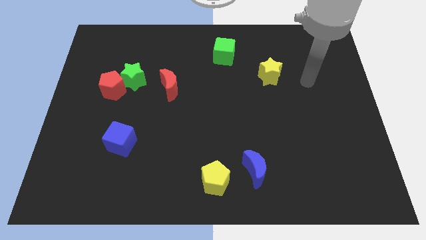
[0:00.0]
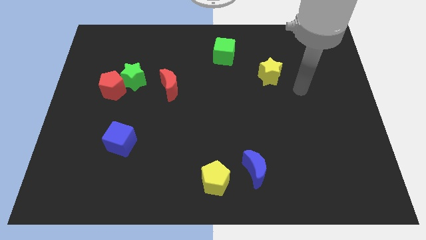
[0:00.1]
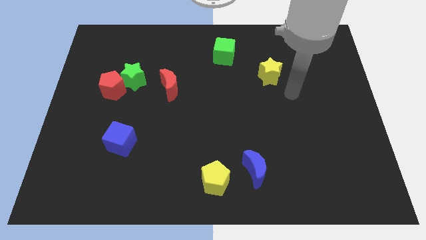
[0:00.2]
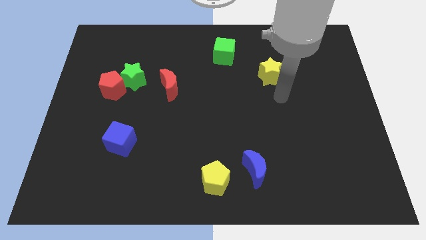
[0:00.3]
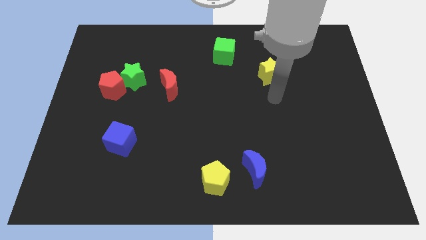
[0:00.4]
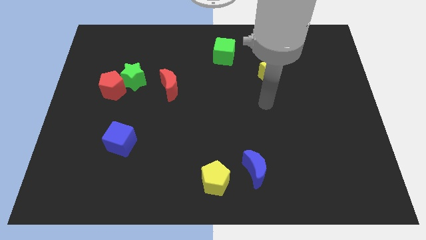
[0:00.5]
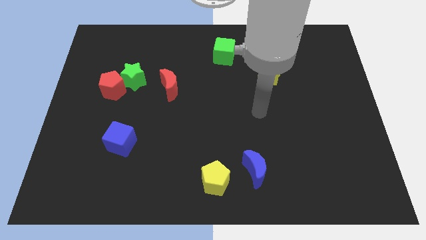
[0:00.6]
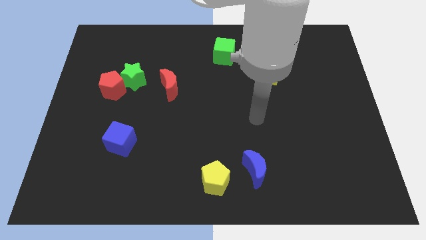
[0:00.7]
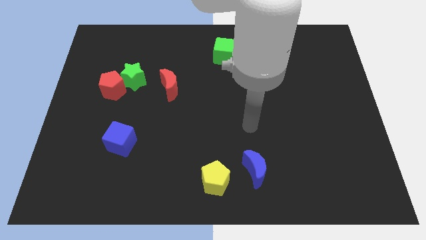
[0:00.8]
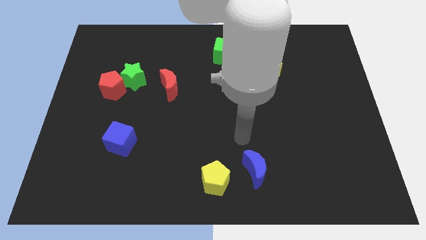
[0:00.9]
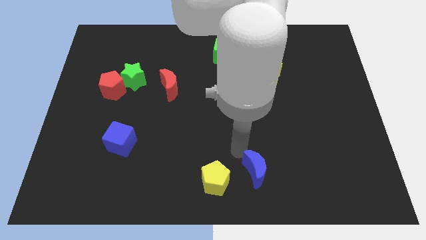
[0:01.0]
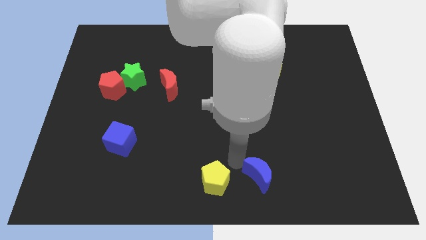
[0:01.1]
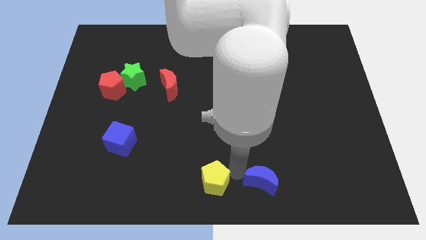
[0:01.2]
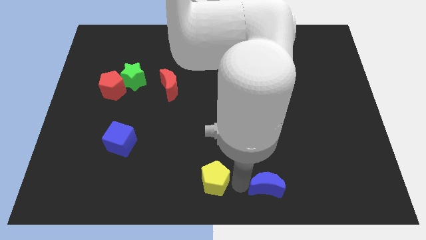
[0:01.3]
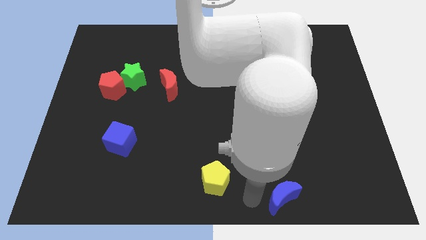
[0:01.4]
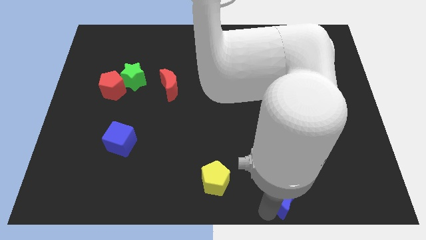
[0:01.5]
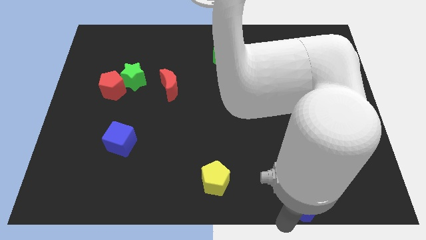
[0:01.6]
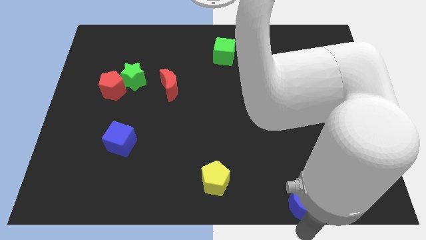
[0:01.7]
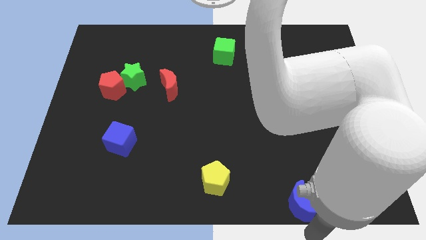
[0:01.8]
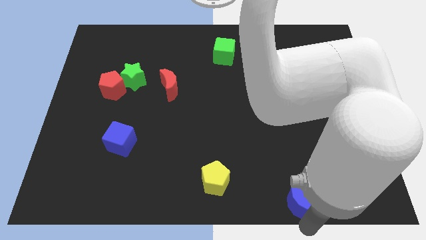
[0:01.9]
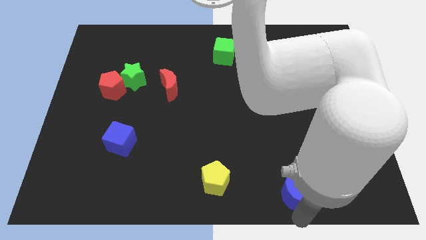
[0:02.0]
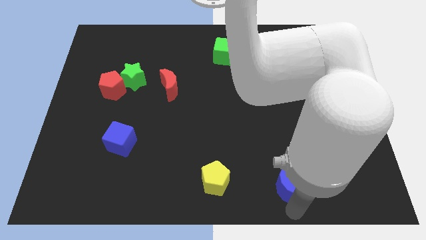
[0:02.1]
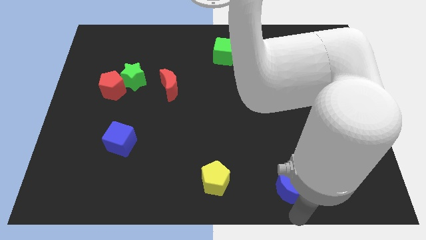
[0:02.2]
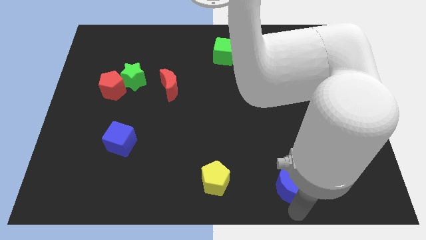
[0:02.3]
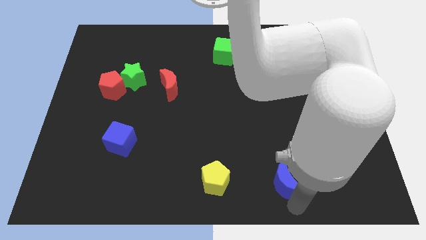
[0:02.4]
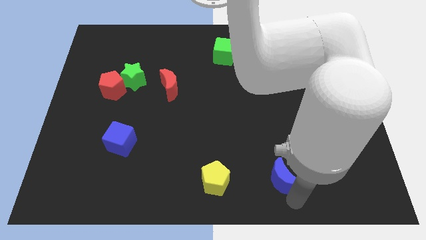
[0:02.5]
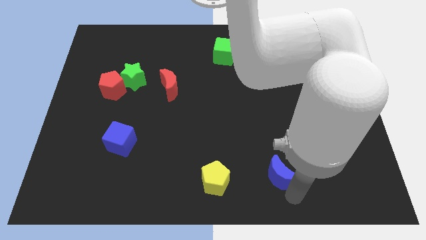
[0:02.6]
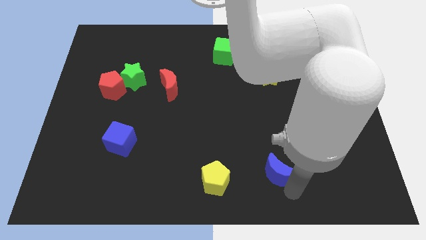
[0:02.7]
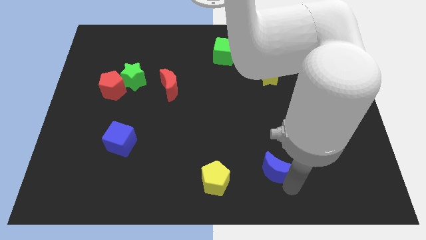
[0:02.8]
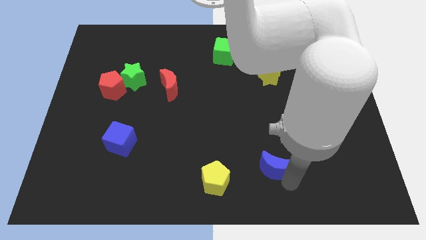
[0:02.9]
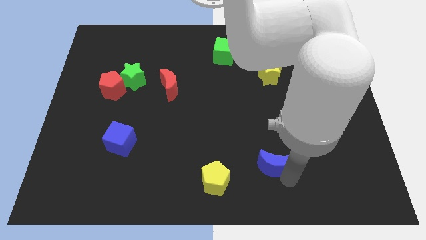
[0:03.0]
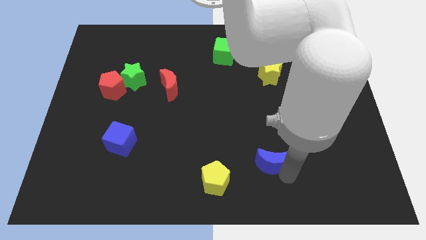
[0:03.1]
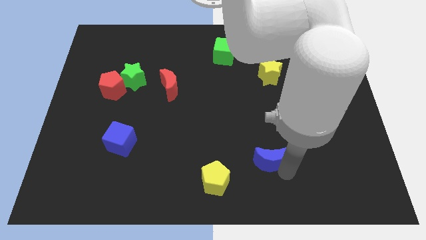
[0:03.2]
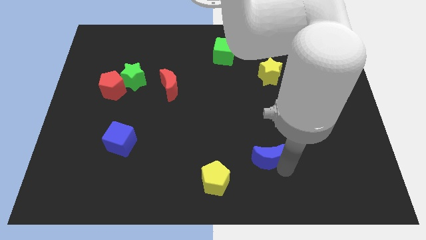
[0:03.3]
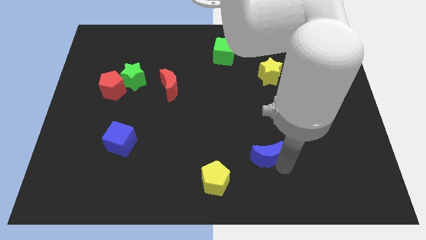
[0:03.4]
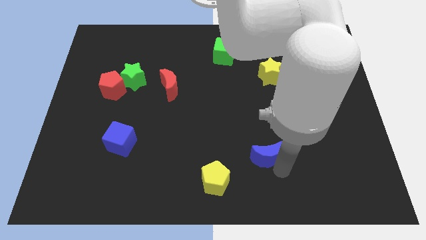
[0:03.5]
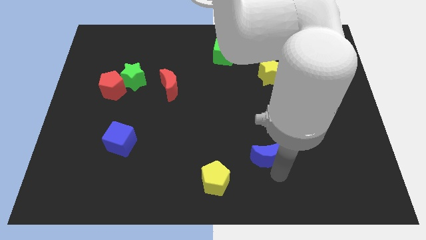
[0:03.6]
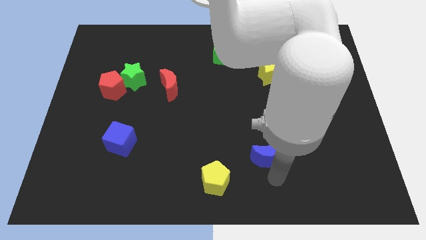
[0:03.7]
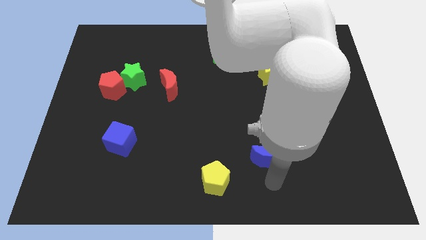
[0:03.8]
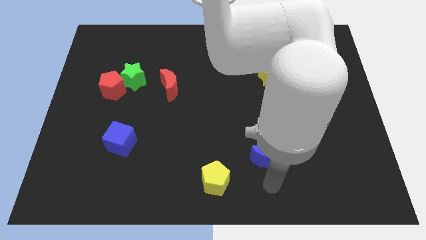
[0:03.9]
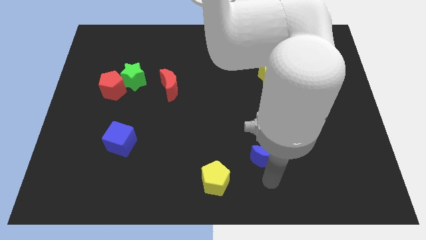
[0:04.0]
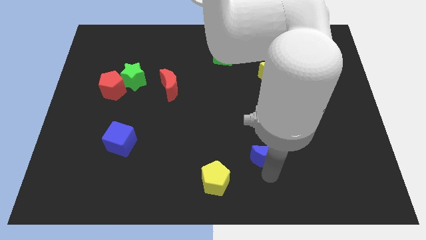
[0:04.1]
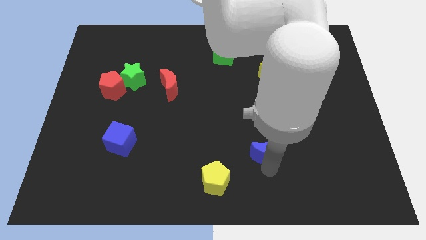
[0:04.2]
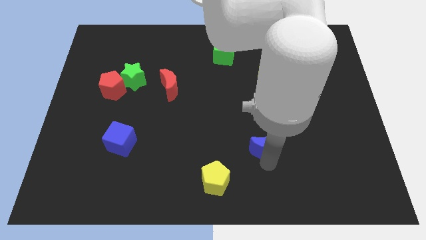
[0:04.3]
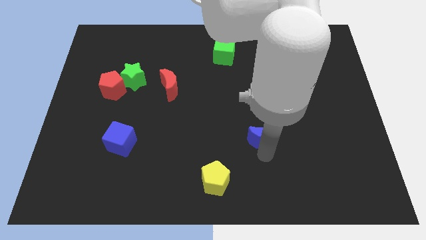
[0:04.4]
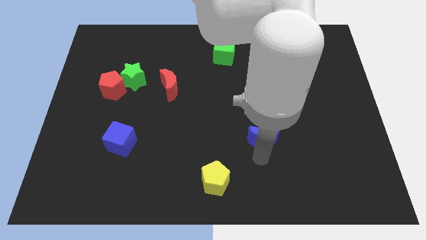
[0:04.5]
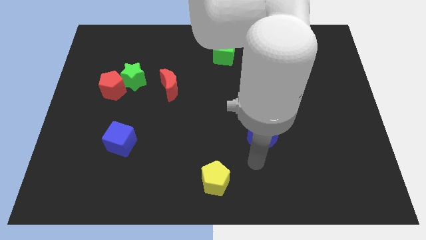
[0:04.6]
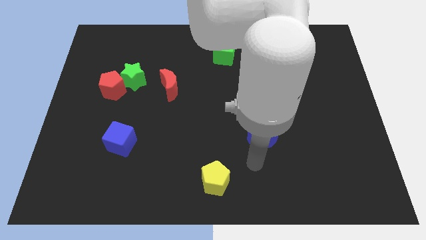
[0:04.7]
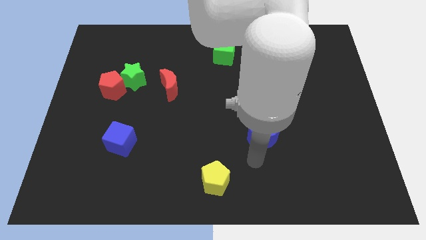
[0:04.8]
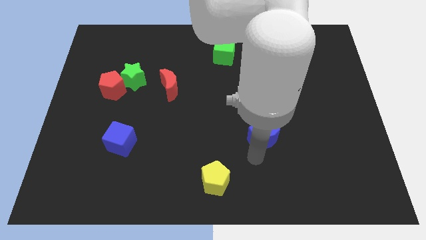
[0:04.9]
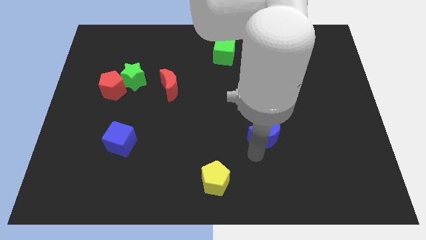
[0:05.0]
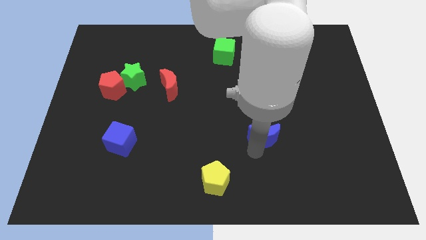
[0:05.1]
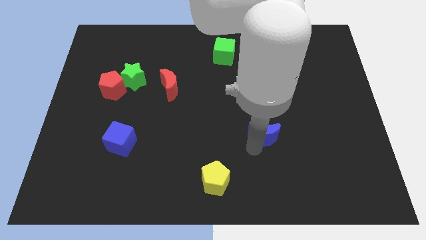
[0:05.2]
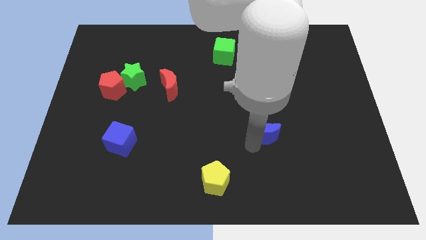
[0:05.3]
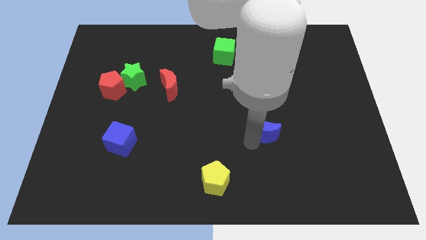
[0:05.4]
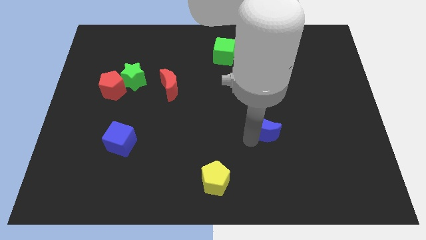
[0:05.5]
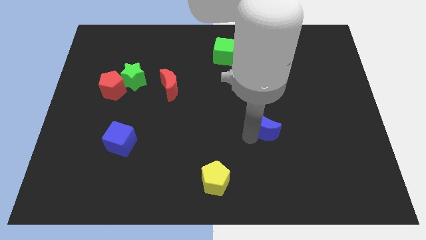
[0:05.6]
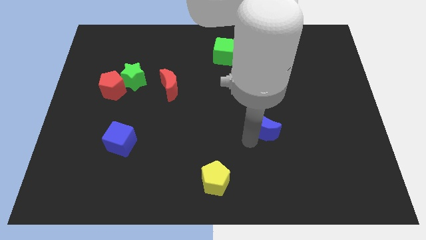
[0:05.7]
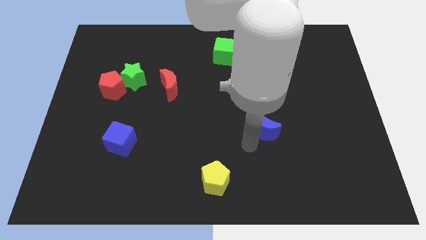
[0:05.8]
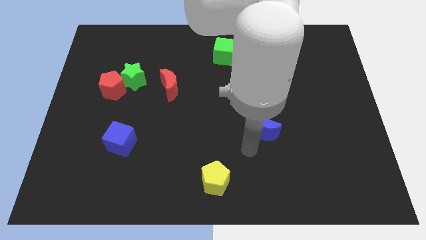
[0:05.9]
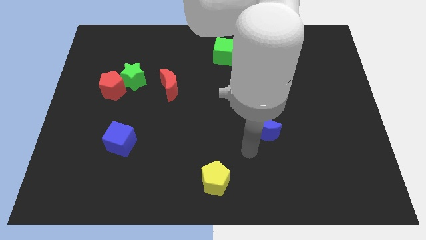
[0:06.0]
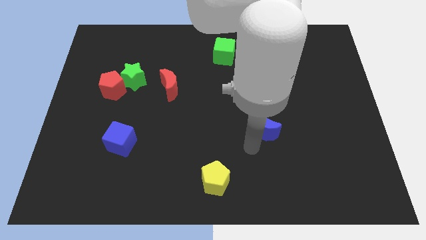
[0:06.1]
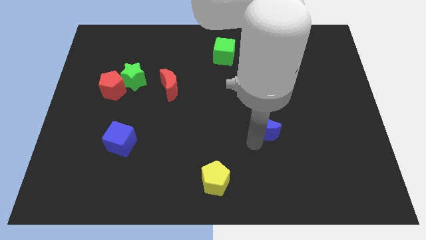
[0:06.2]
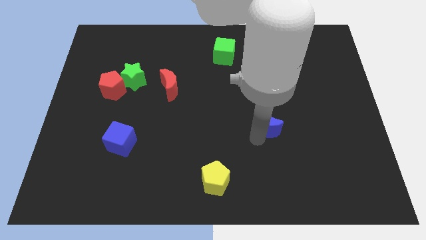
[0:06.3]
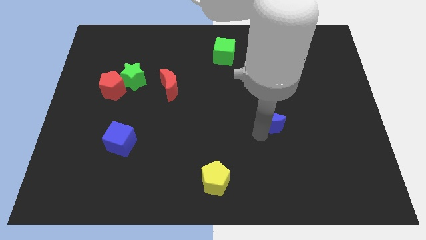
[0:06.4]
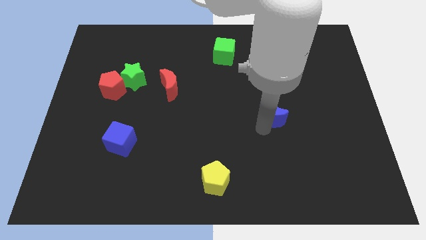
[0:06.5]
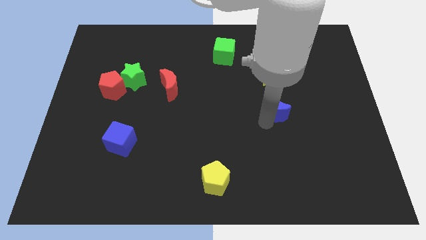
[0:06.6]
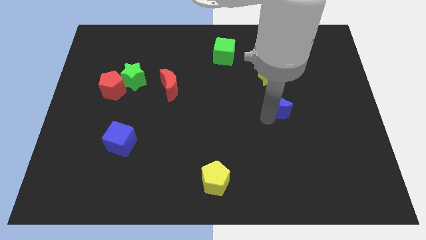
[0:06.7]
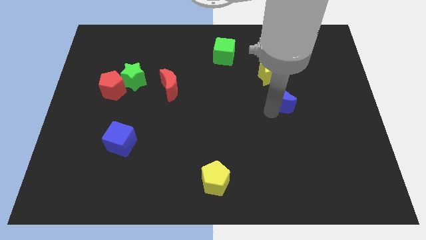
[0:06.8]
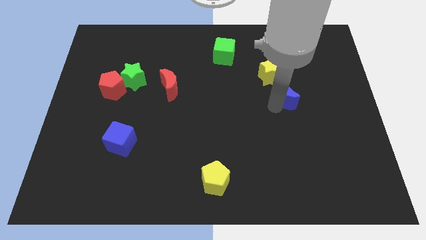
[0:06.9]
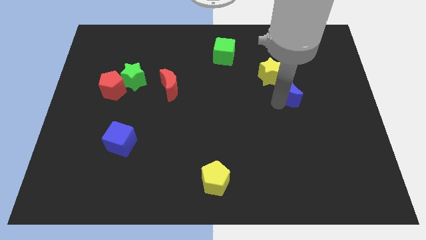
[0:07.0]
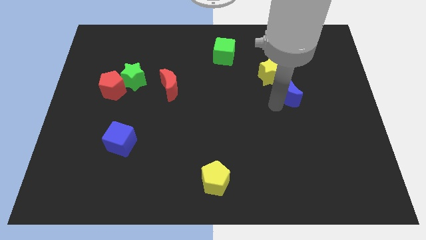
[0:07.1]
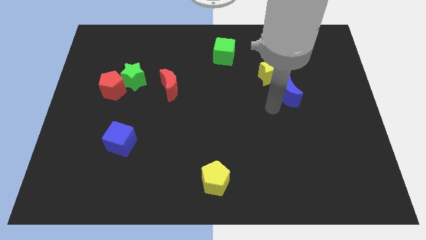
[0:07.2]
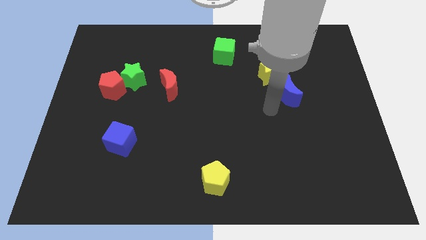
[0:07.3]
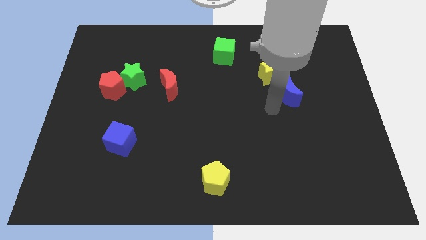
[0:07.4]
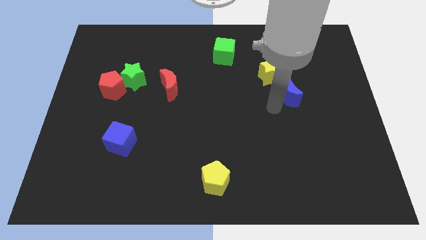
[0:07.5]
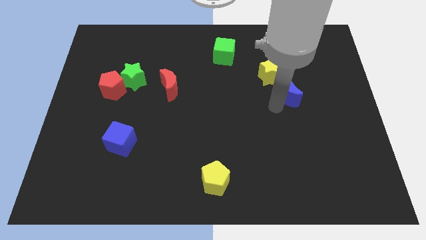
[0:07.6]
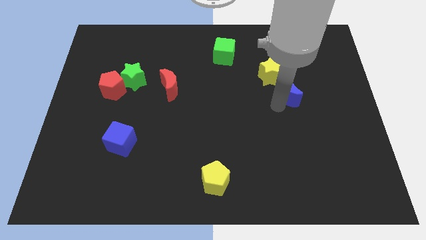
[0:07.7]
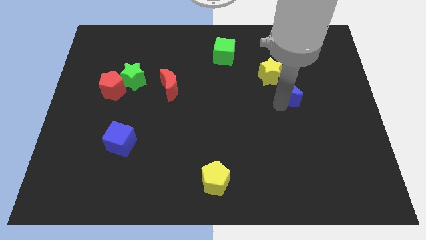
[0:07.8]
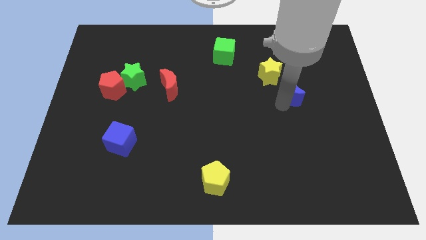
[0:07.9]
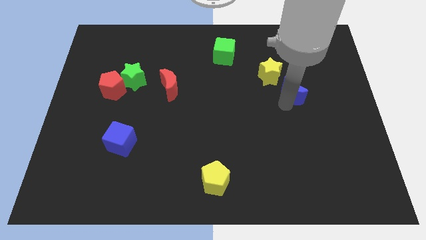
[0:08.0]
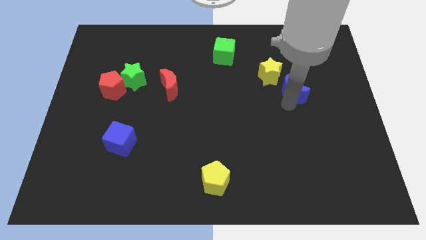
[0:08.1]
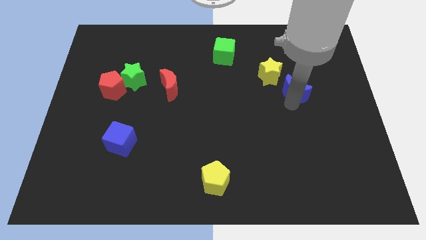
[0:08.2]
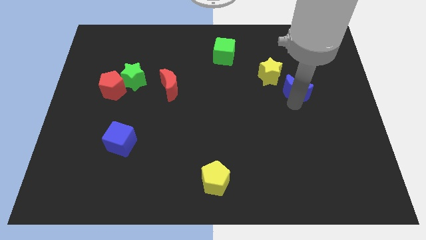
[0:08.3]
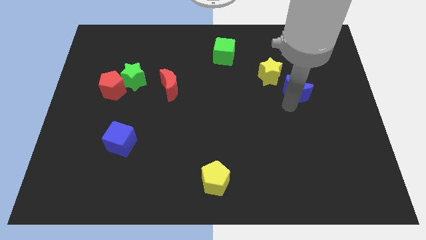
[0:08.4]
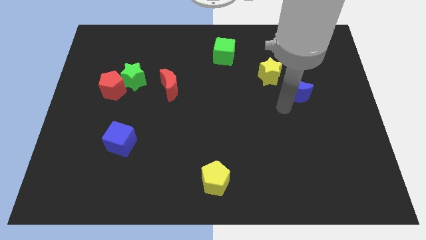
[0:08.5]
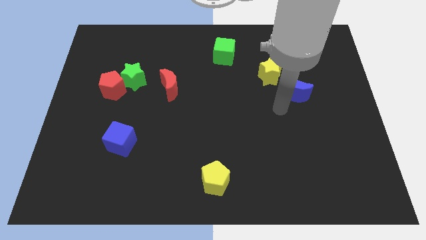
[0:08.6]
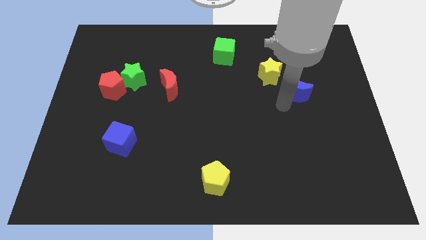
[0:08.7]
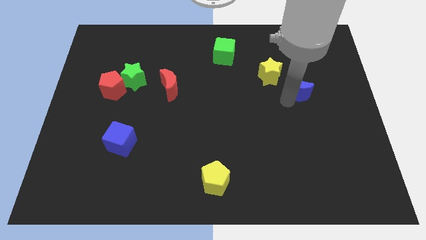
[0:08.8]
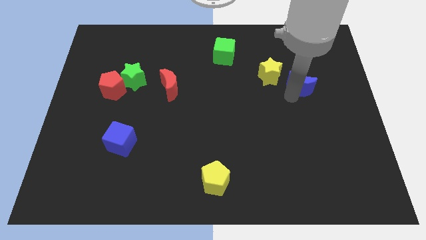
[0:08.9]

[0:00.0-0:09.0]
move the blue moon to the right of the yellow star
